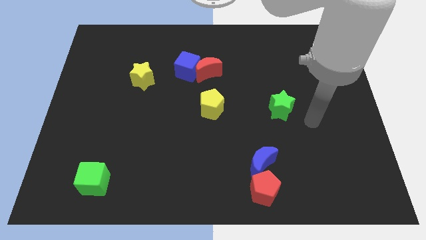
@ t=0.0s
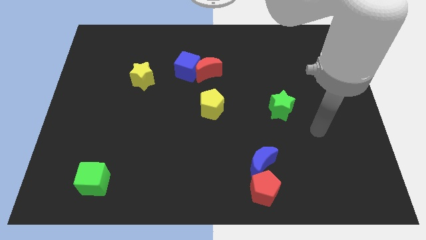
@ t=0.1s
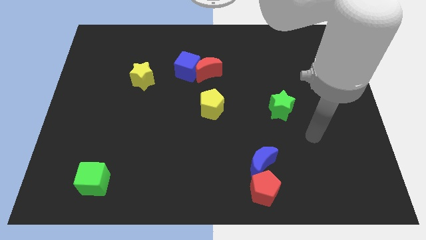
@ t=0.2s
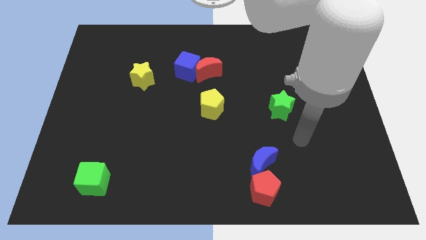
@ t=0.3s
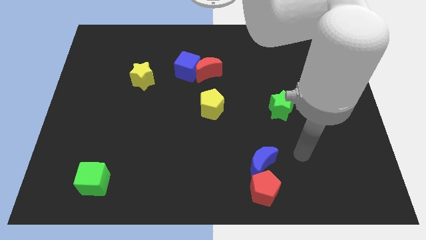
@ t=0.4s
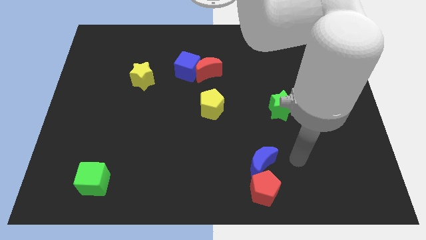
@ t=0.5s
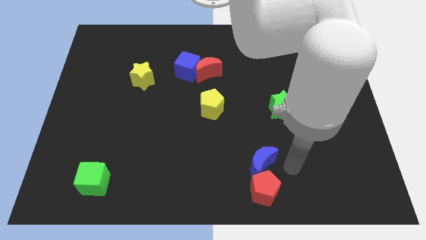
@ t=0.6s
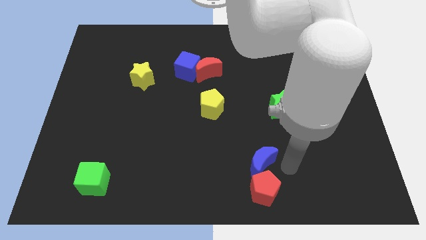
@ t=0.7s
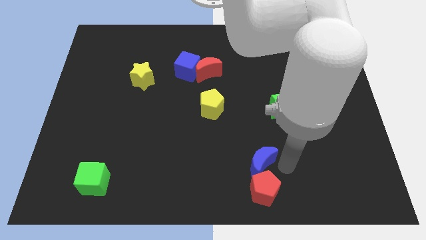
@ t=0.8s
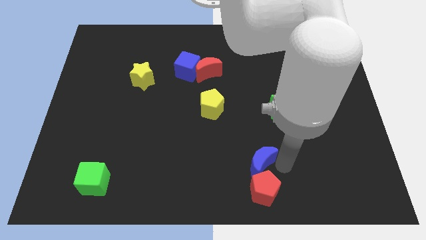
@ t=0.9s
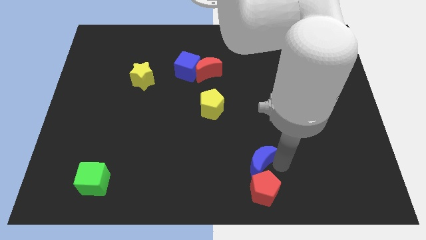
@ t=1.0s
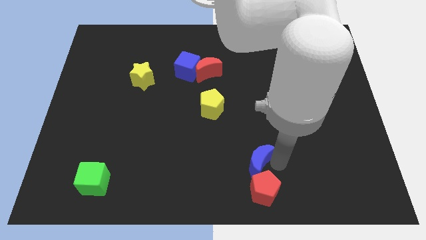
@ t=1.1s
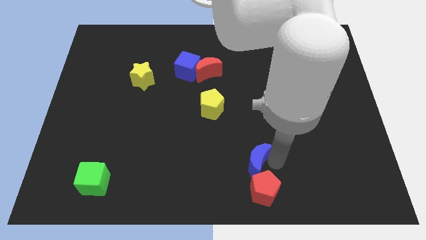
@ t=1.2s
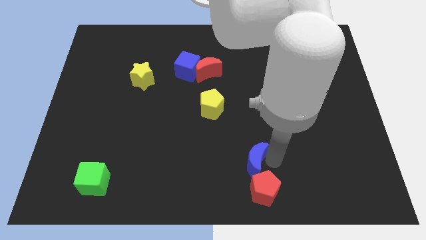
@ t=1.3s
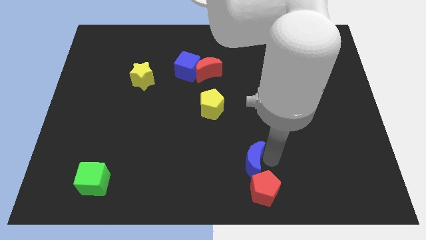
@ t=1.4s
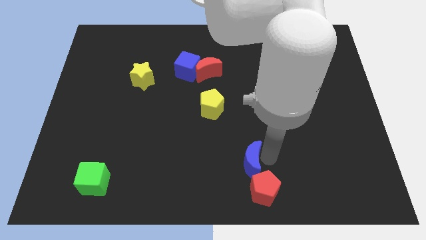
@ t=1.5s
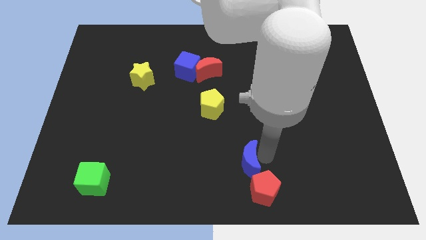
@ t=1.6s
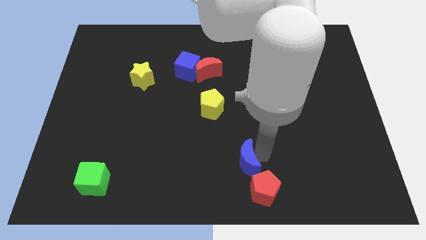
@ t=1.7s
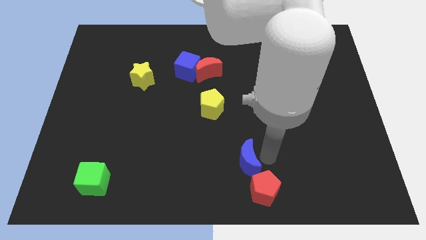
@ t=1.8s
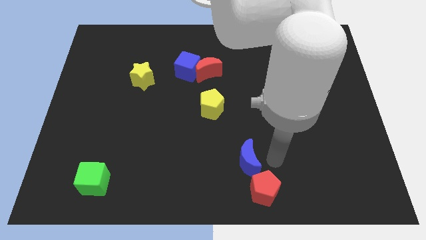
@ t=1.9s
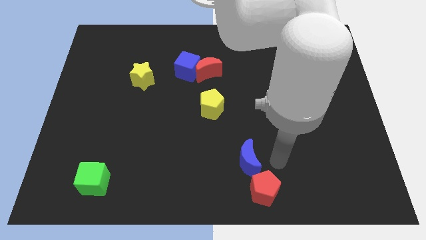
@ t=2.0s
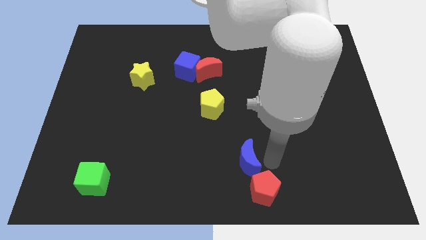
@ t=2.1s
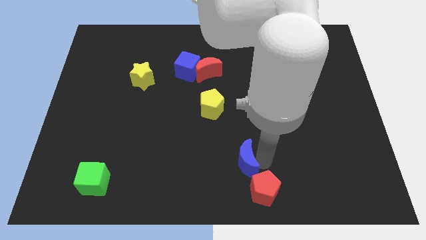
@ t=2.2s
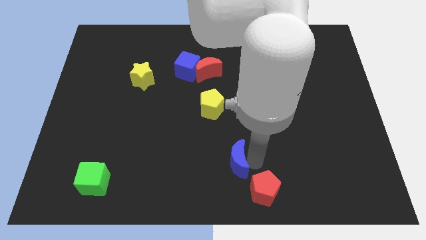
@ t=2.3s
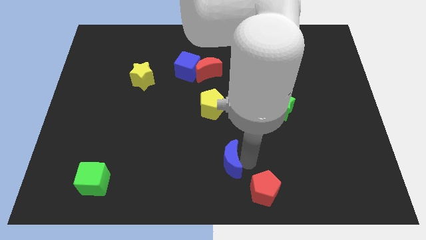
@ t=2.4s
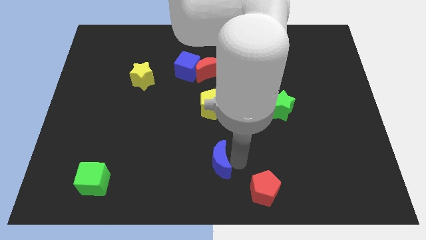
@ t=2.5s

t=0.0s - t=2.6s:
move the blue moon to the left somewhat

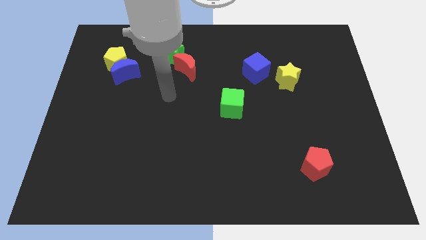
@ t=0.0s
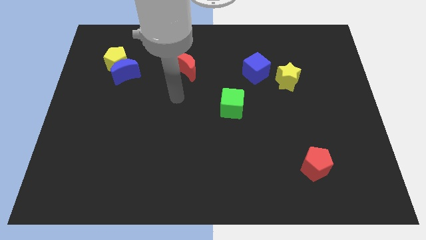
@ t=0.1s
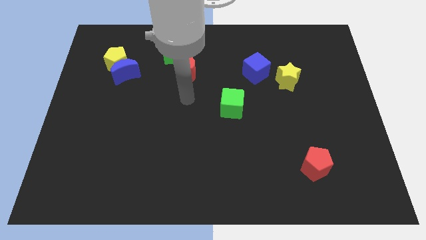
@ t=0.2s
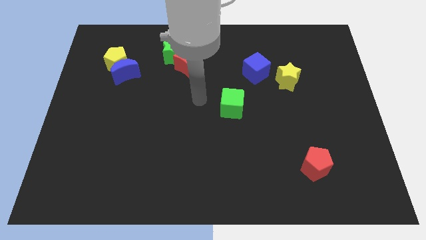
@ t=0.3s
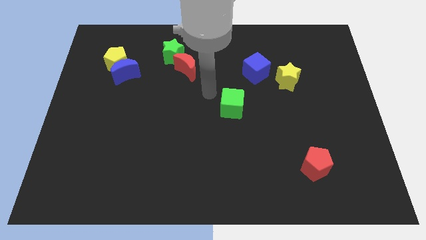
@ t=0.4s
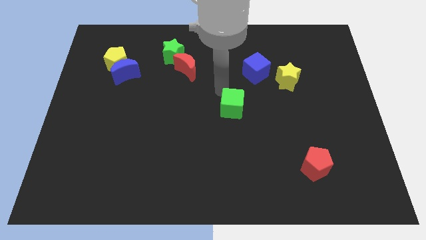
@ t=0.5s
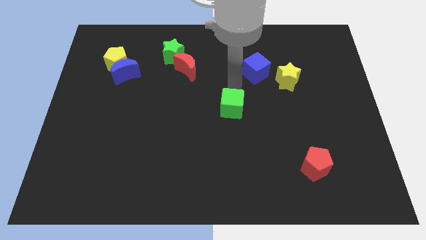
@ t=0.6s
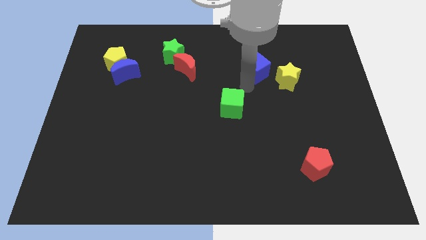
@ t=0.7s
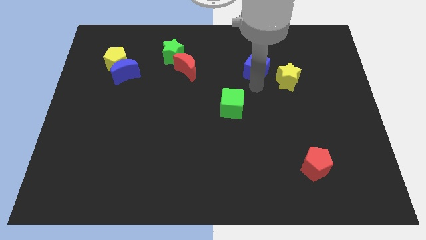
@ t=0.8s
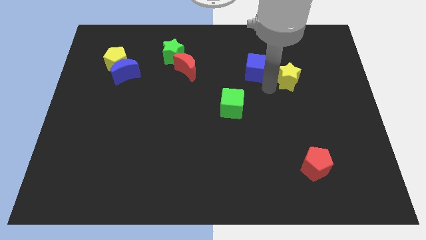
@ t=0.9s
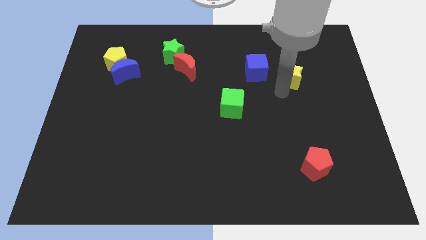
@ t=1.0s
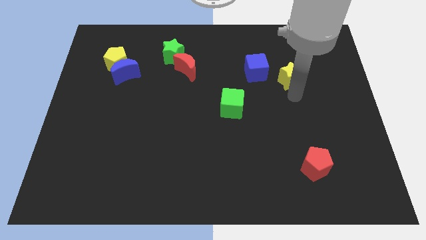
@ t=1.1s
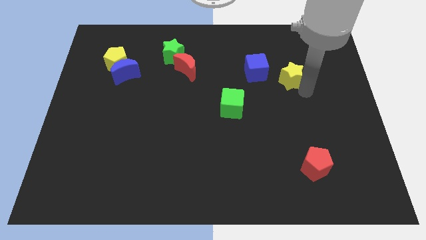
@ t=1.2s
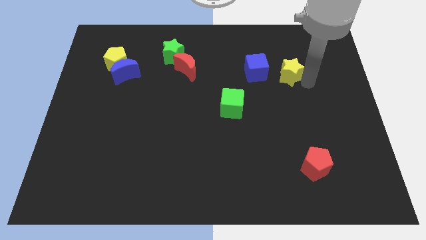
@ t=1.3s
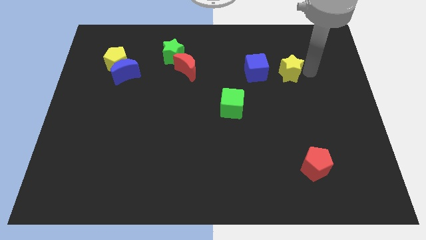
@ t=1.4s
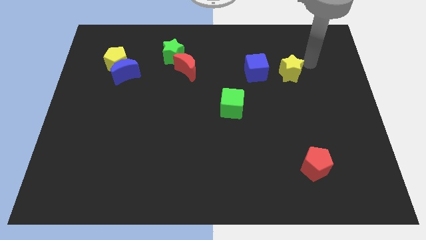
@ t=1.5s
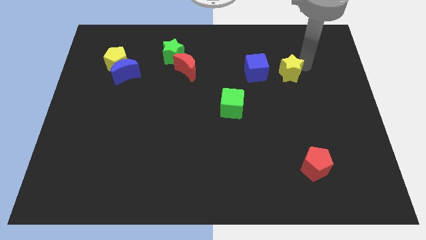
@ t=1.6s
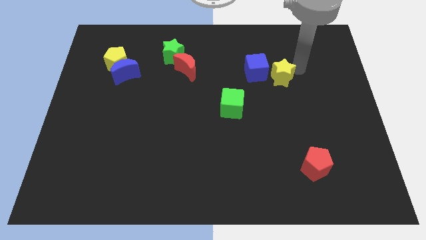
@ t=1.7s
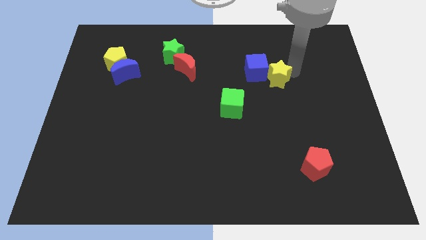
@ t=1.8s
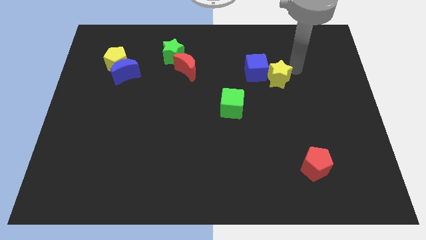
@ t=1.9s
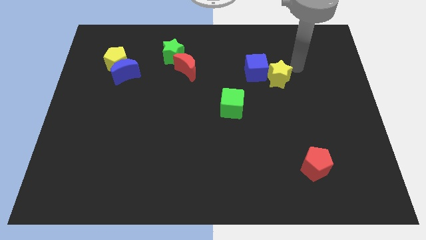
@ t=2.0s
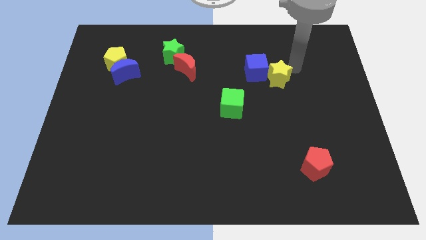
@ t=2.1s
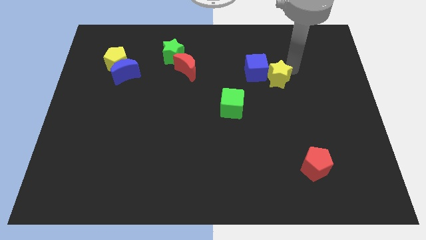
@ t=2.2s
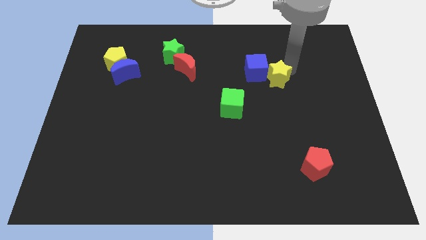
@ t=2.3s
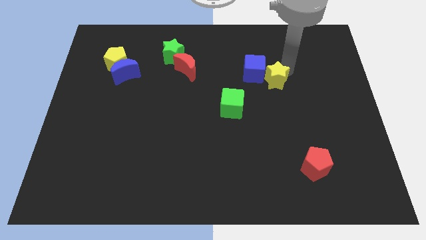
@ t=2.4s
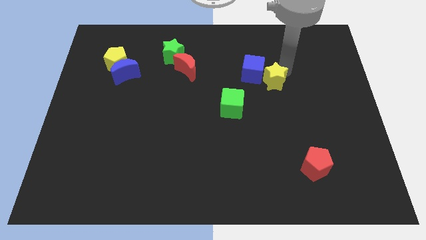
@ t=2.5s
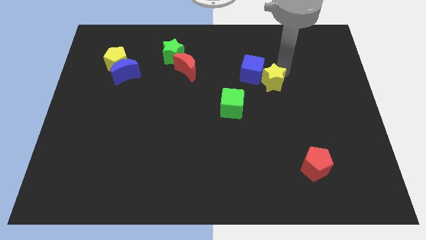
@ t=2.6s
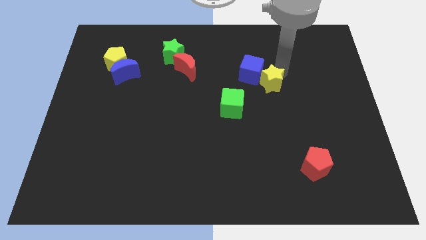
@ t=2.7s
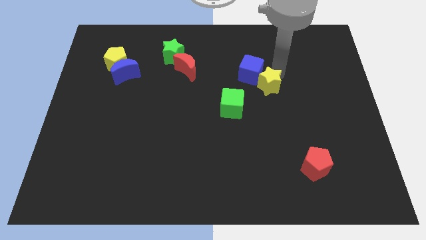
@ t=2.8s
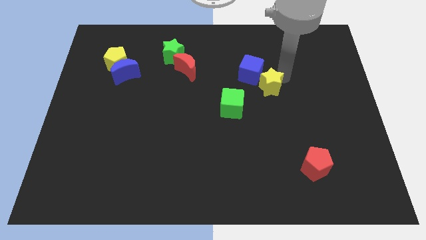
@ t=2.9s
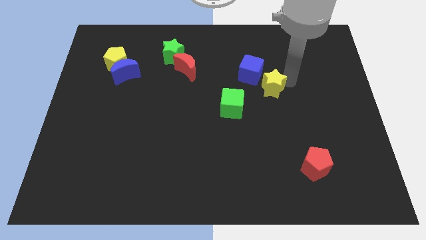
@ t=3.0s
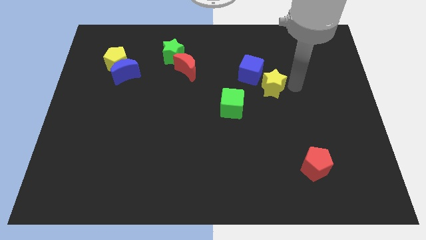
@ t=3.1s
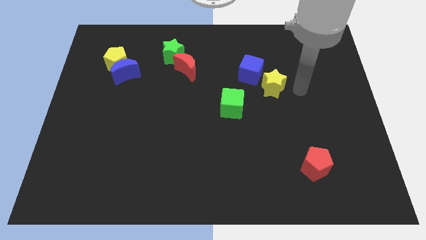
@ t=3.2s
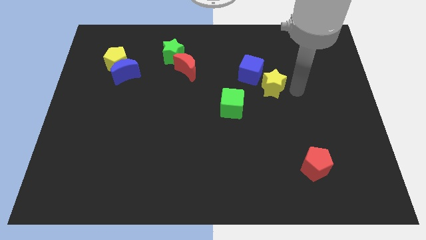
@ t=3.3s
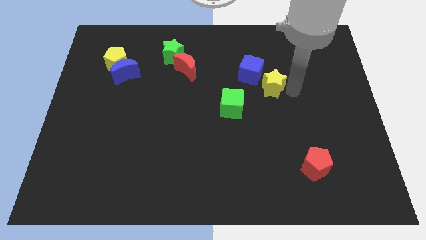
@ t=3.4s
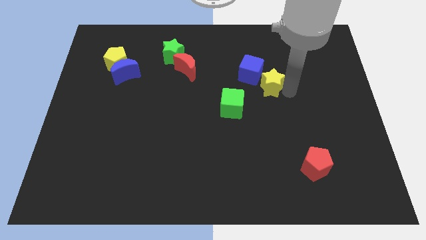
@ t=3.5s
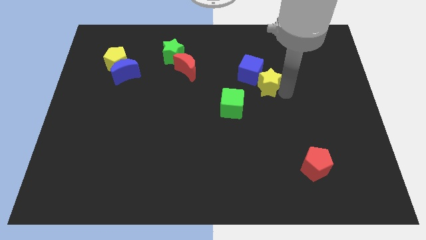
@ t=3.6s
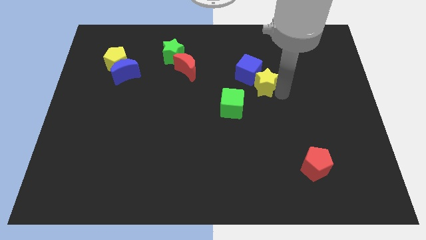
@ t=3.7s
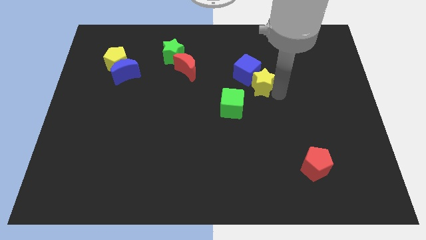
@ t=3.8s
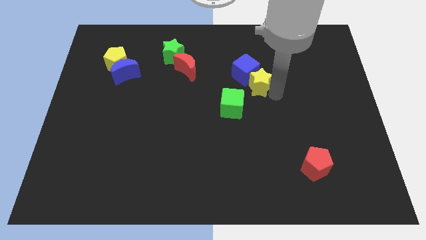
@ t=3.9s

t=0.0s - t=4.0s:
move the yellow star slightly to the left

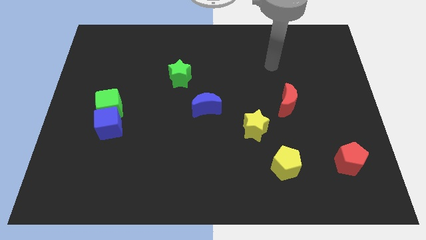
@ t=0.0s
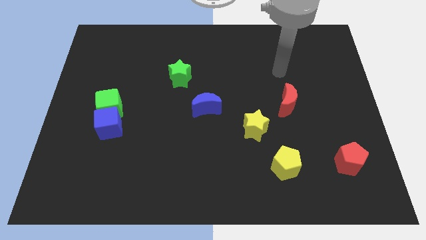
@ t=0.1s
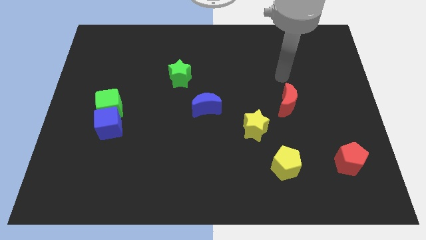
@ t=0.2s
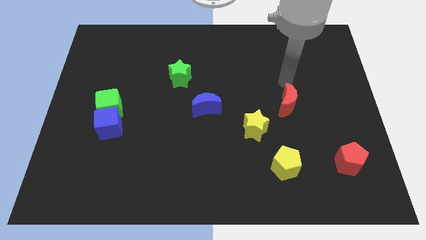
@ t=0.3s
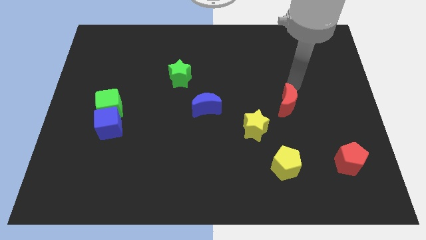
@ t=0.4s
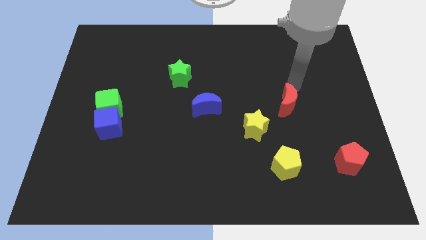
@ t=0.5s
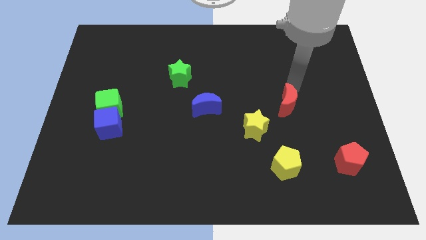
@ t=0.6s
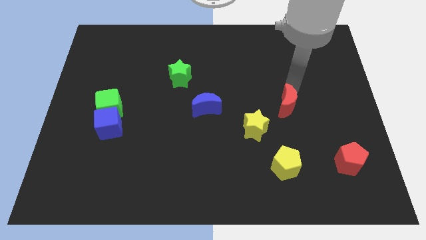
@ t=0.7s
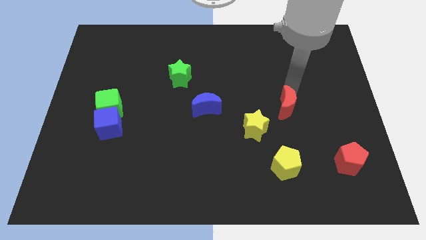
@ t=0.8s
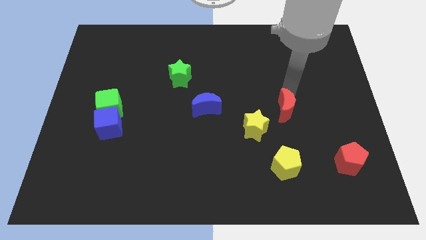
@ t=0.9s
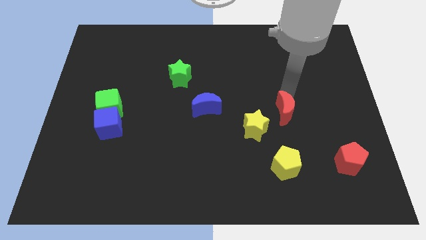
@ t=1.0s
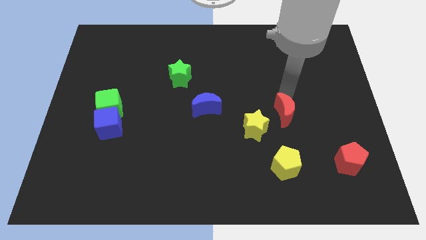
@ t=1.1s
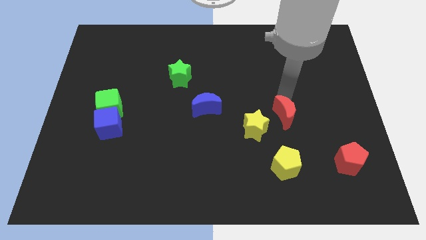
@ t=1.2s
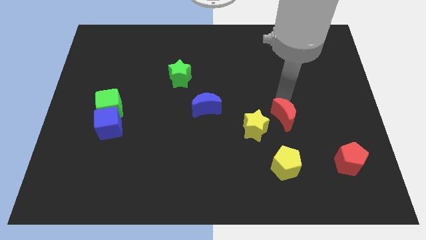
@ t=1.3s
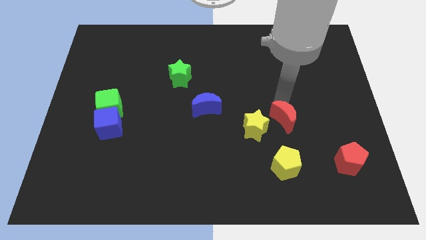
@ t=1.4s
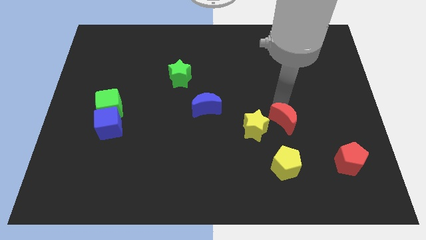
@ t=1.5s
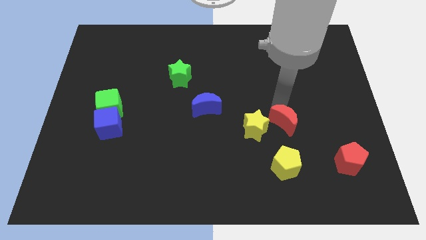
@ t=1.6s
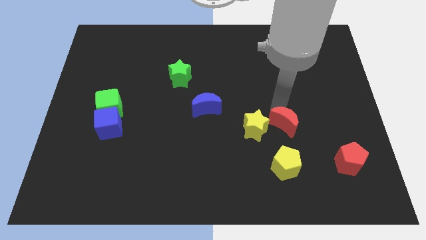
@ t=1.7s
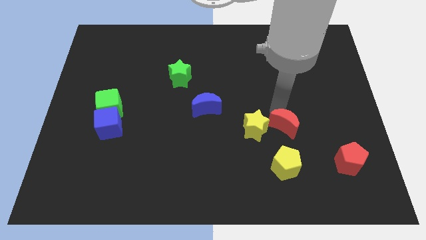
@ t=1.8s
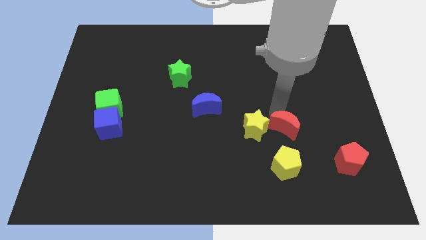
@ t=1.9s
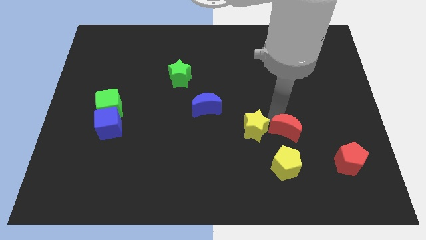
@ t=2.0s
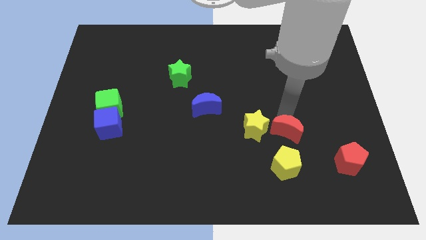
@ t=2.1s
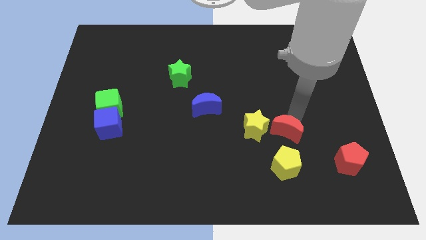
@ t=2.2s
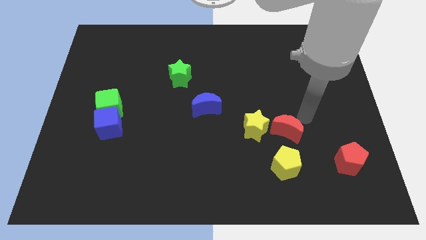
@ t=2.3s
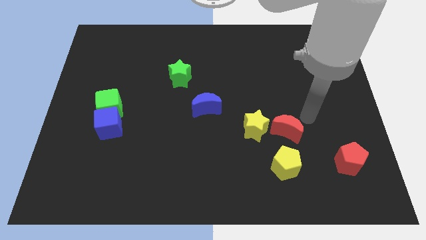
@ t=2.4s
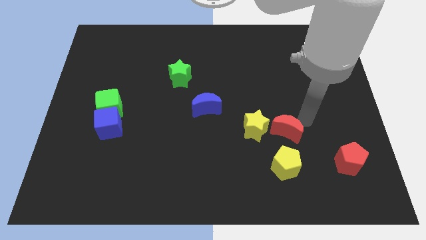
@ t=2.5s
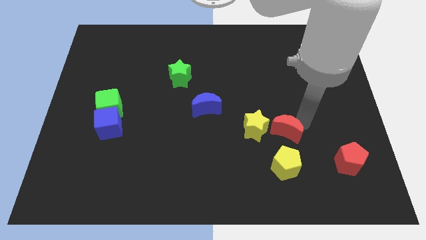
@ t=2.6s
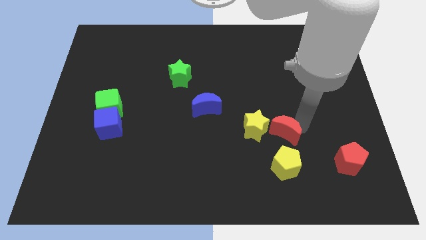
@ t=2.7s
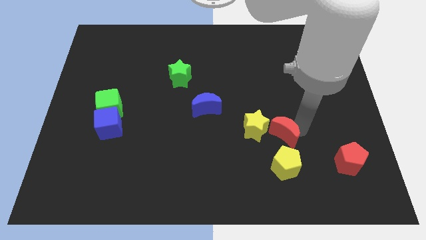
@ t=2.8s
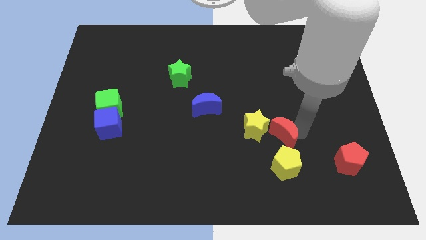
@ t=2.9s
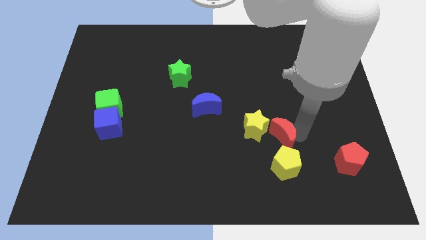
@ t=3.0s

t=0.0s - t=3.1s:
slide the red moon a little down and to the left diagonally
